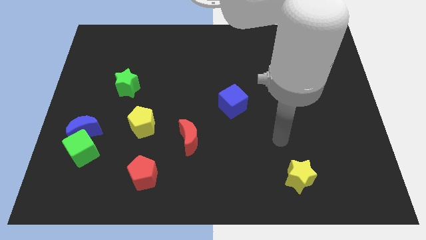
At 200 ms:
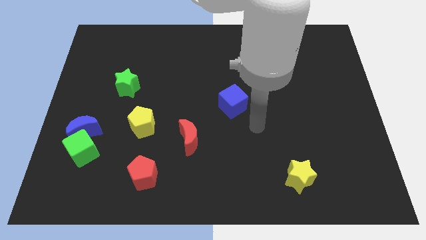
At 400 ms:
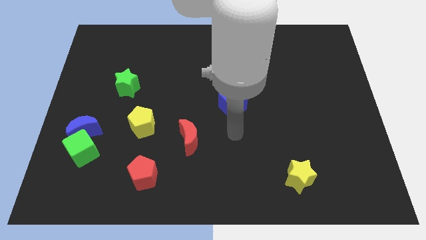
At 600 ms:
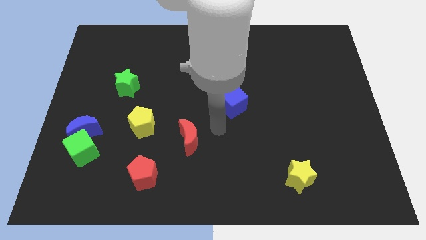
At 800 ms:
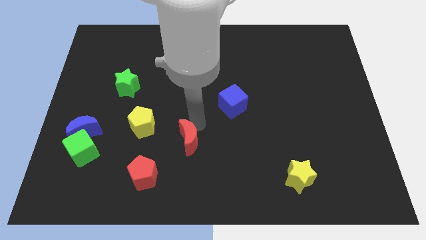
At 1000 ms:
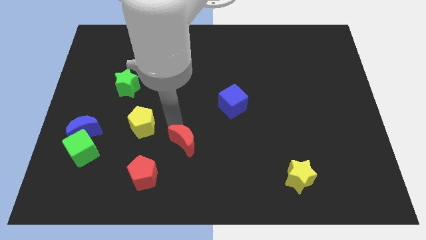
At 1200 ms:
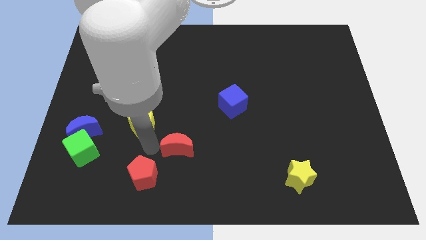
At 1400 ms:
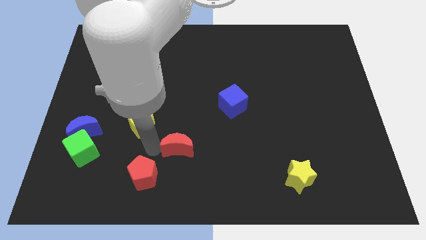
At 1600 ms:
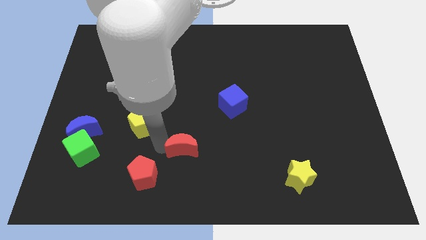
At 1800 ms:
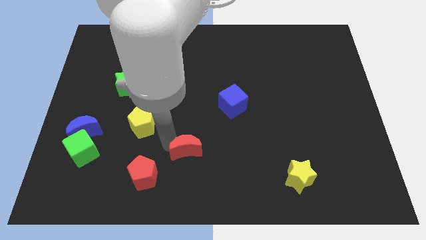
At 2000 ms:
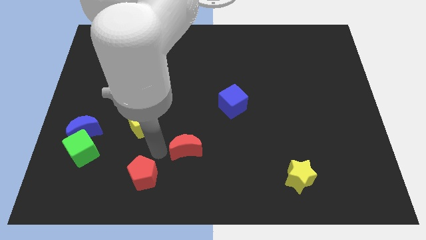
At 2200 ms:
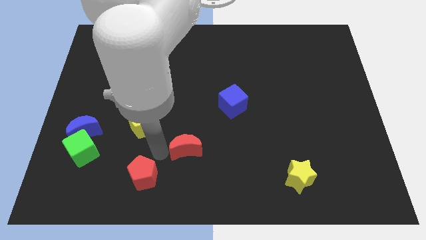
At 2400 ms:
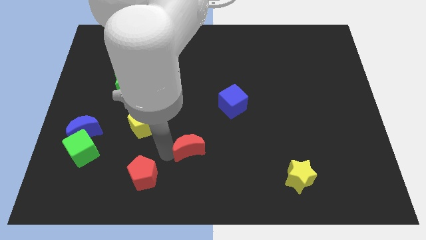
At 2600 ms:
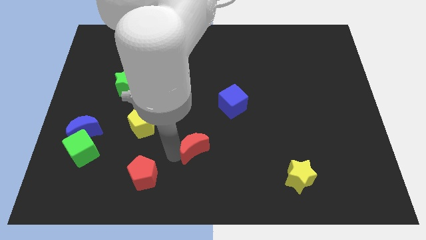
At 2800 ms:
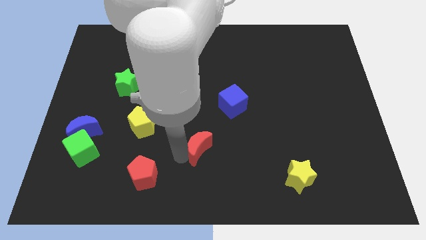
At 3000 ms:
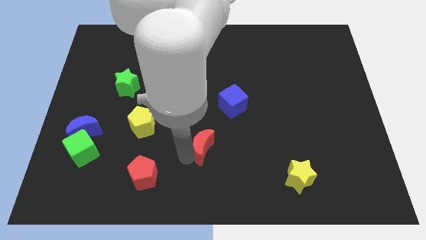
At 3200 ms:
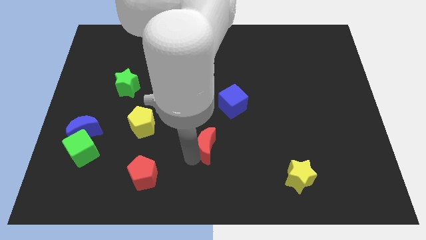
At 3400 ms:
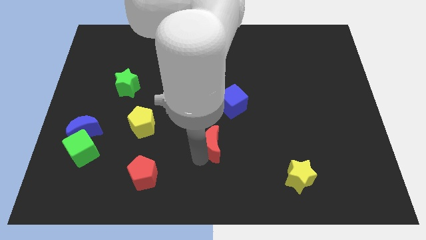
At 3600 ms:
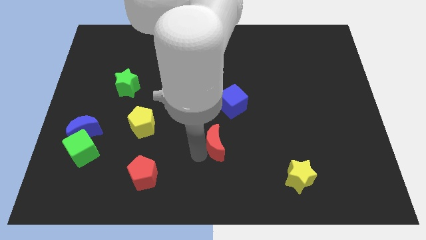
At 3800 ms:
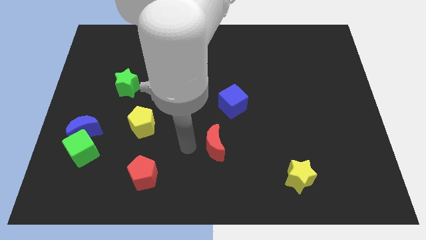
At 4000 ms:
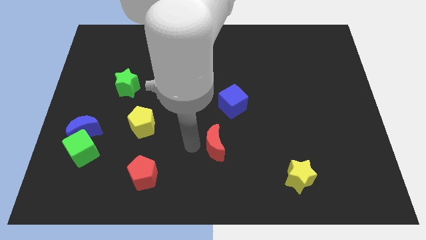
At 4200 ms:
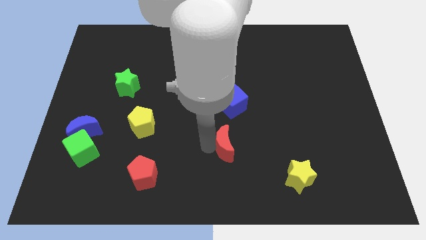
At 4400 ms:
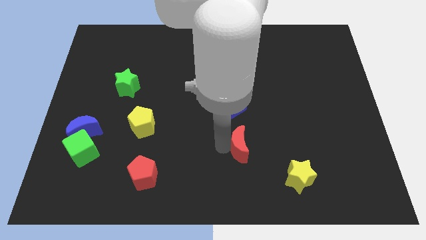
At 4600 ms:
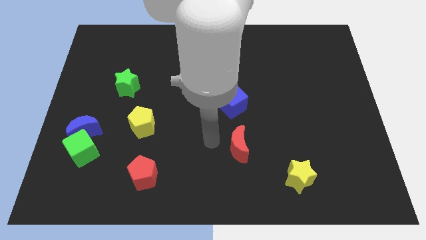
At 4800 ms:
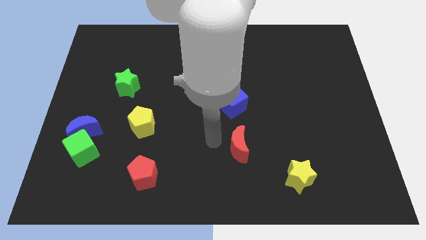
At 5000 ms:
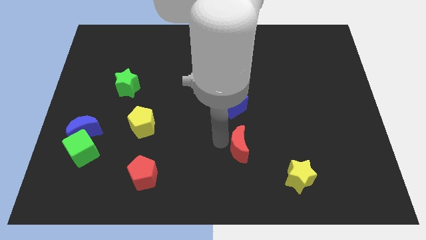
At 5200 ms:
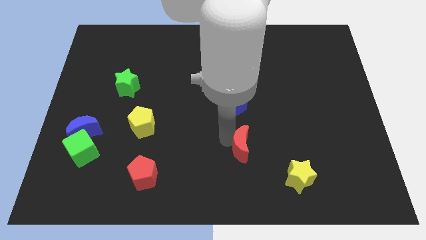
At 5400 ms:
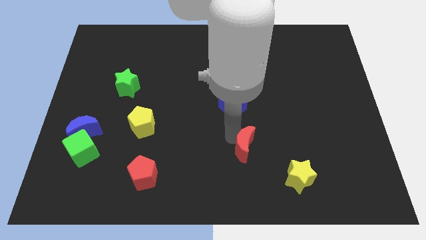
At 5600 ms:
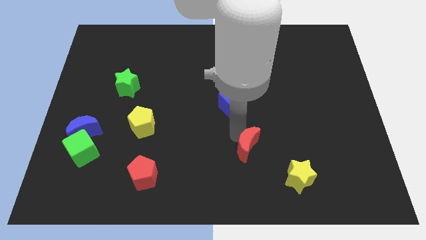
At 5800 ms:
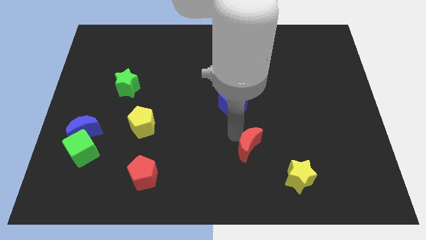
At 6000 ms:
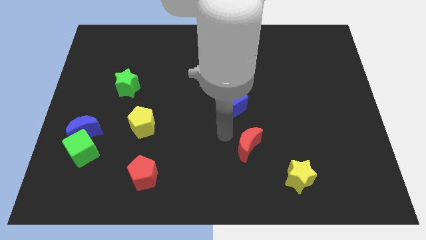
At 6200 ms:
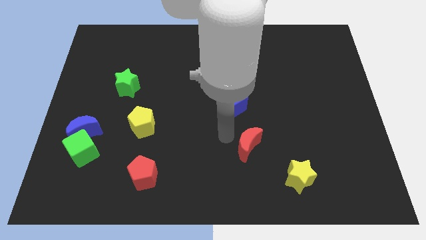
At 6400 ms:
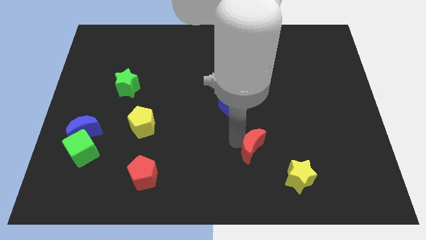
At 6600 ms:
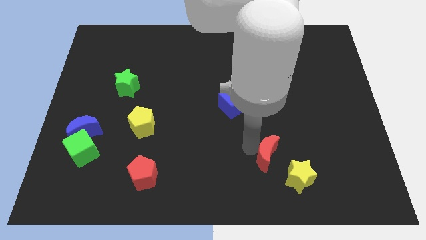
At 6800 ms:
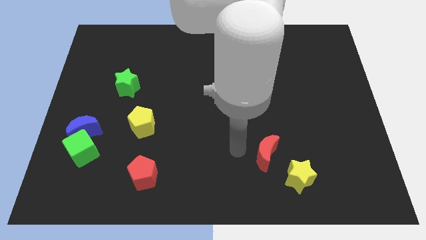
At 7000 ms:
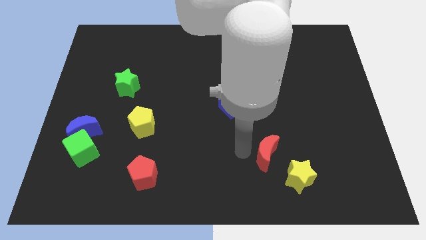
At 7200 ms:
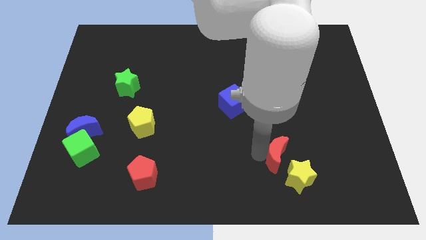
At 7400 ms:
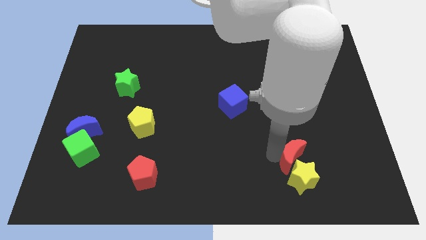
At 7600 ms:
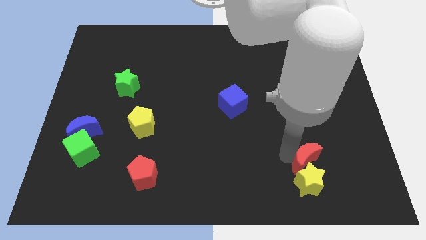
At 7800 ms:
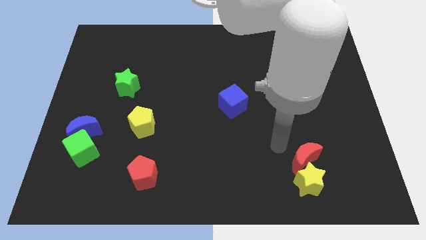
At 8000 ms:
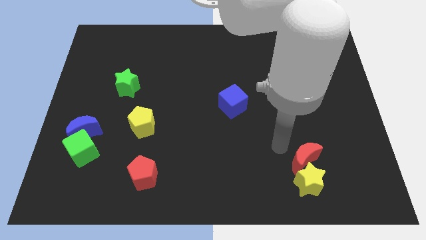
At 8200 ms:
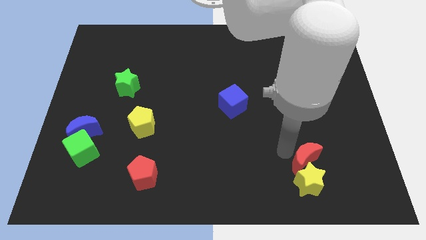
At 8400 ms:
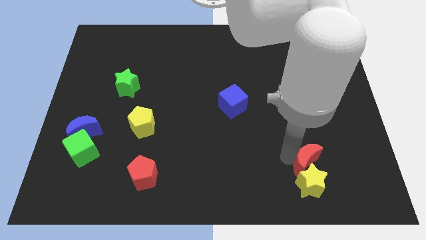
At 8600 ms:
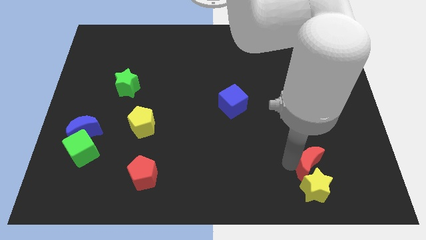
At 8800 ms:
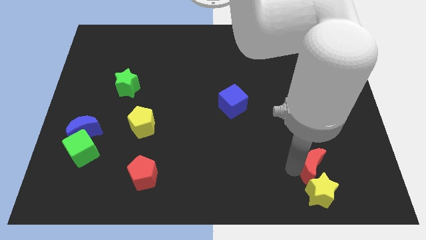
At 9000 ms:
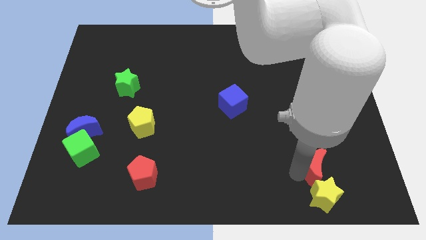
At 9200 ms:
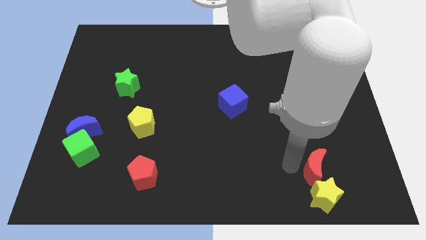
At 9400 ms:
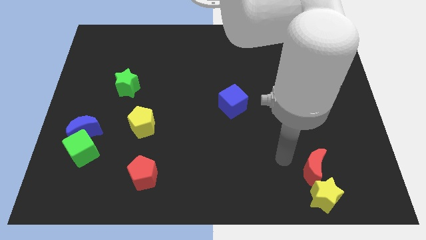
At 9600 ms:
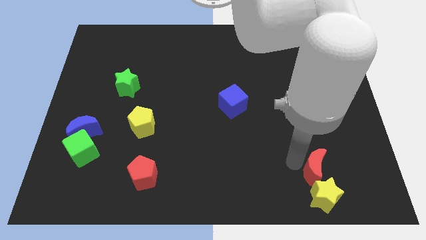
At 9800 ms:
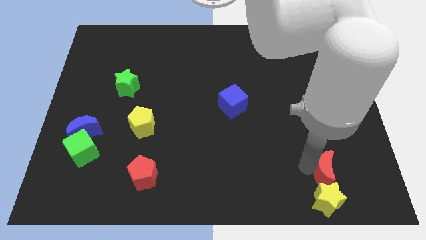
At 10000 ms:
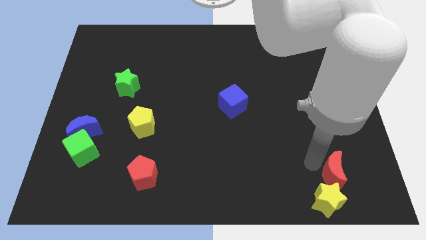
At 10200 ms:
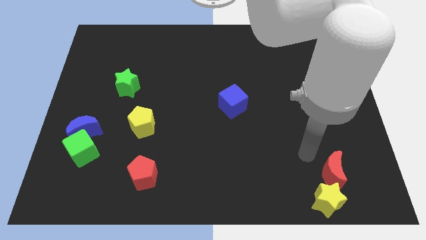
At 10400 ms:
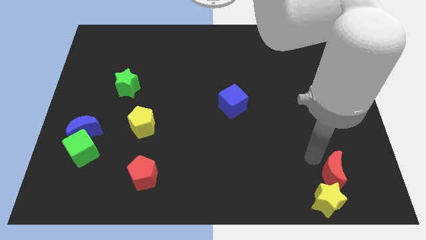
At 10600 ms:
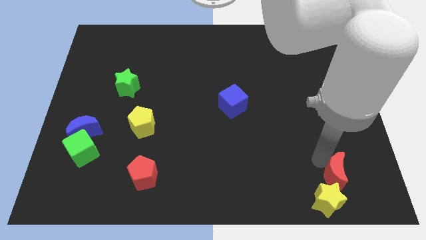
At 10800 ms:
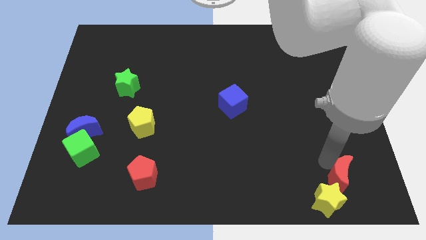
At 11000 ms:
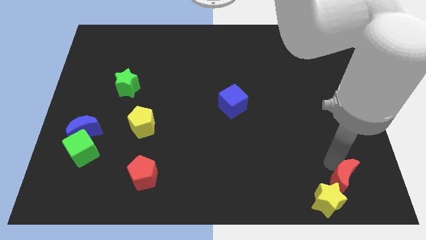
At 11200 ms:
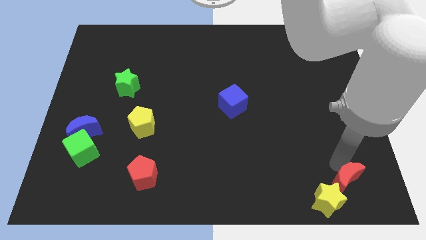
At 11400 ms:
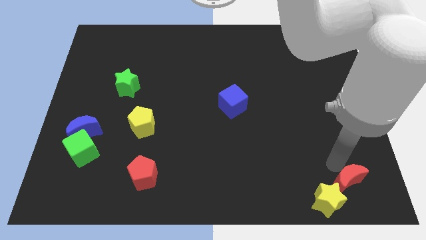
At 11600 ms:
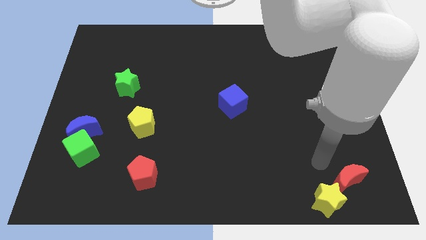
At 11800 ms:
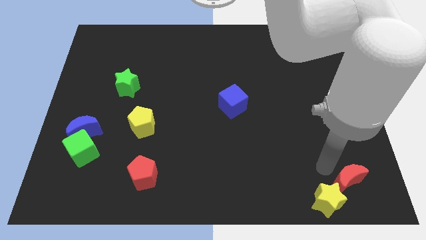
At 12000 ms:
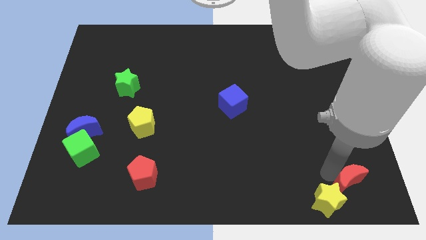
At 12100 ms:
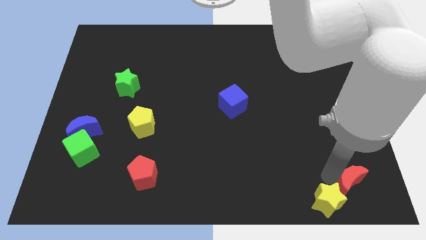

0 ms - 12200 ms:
move the red moon to the bottom right
